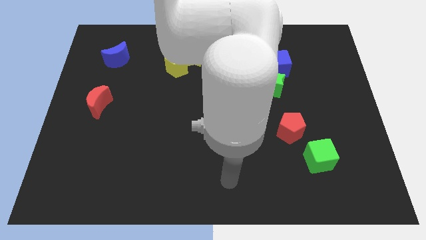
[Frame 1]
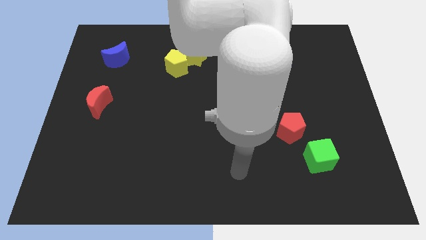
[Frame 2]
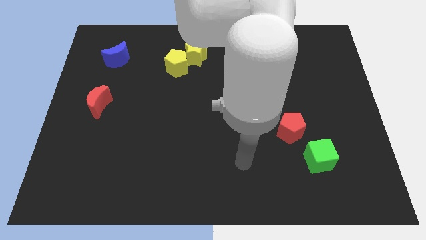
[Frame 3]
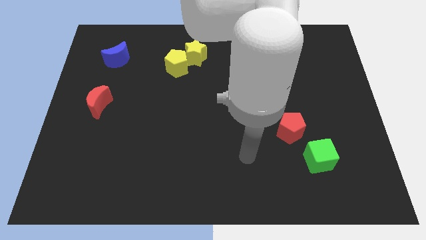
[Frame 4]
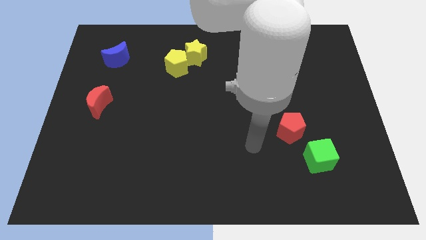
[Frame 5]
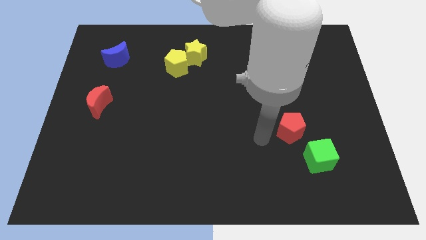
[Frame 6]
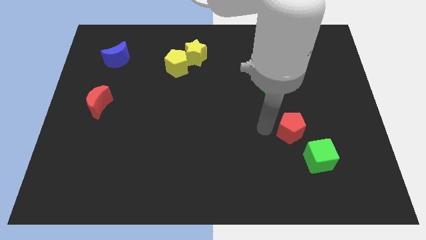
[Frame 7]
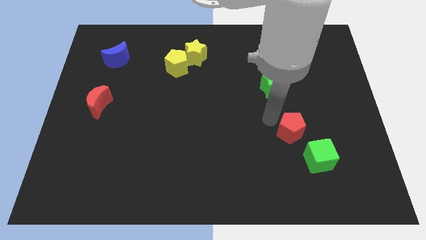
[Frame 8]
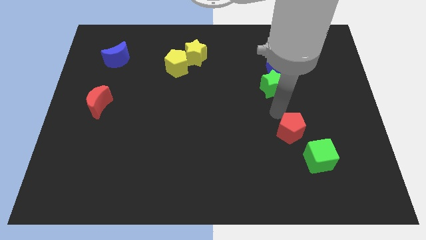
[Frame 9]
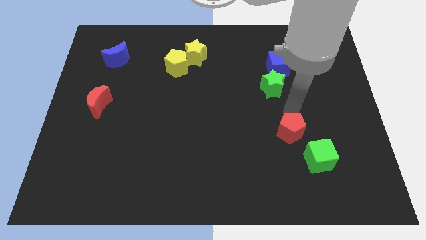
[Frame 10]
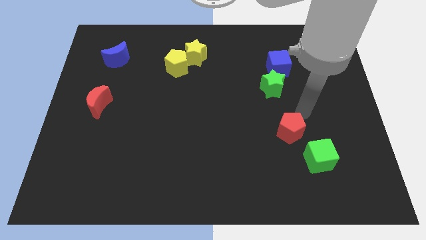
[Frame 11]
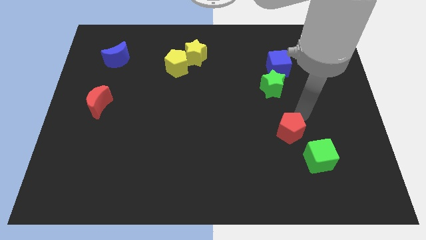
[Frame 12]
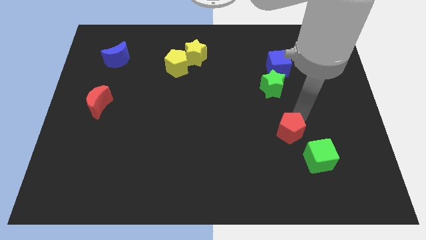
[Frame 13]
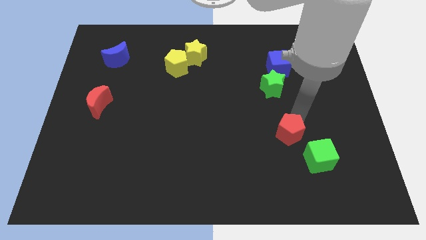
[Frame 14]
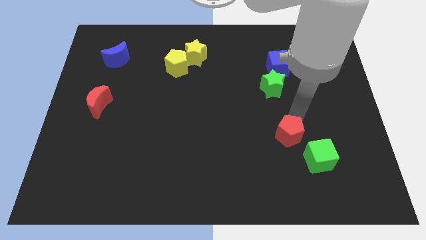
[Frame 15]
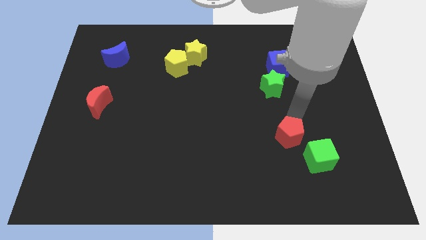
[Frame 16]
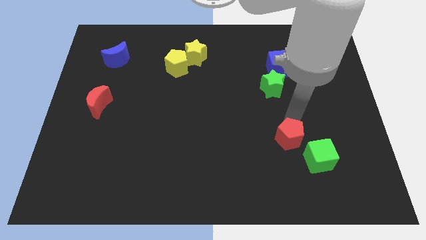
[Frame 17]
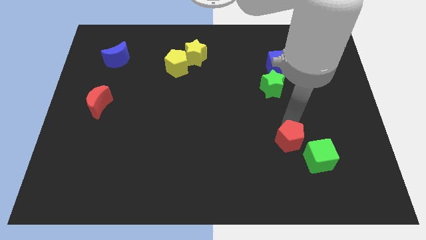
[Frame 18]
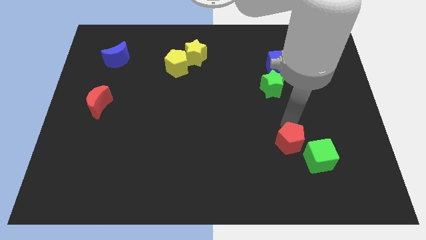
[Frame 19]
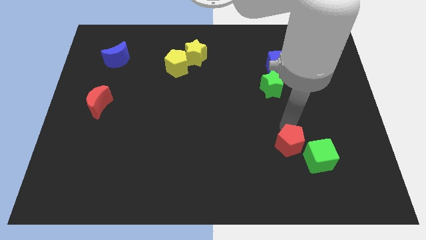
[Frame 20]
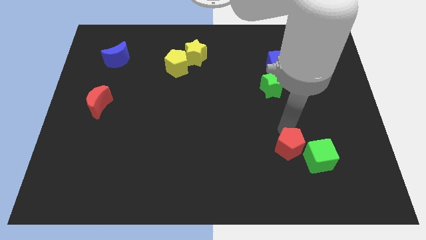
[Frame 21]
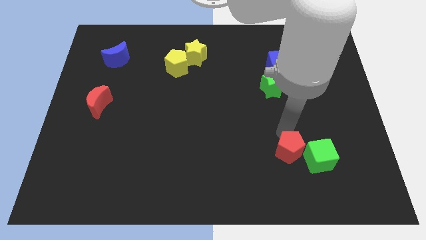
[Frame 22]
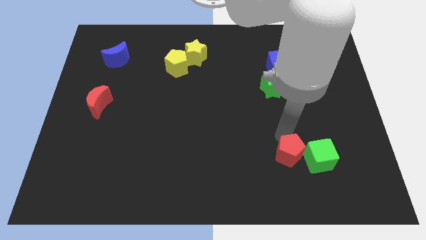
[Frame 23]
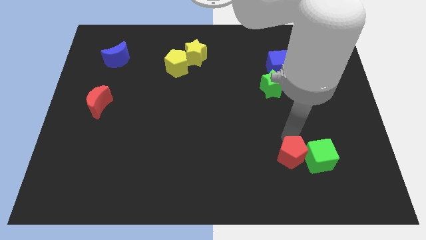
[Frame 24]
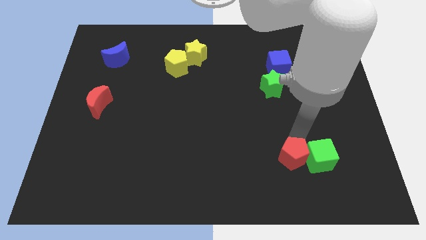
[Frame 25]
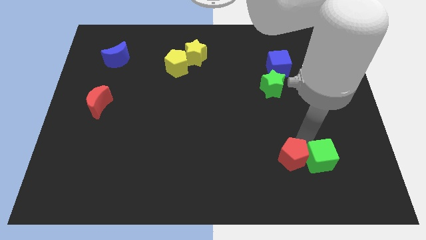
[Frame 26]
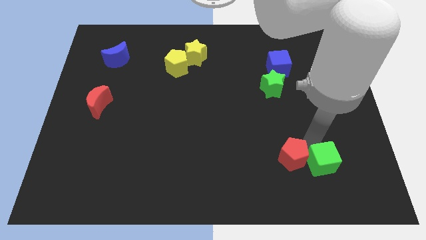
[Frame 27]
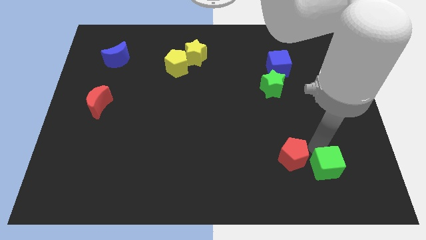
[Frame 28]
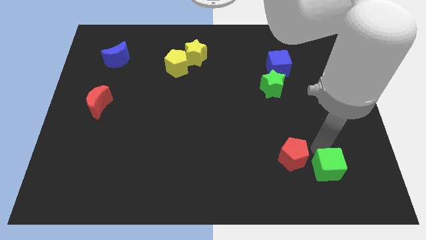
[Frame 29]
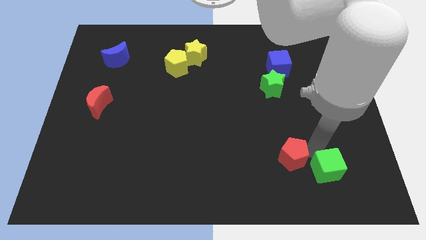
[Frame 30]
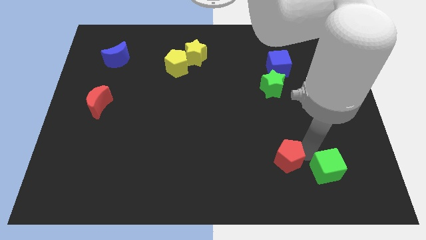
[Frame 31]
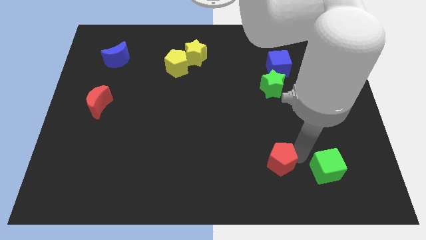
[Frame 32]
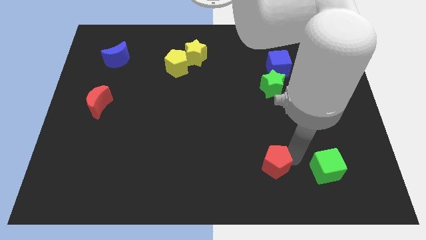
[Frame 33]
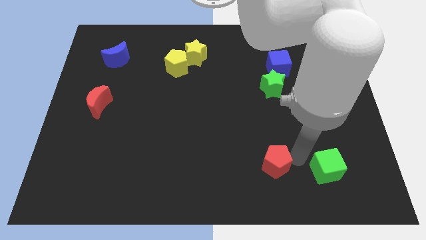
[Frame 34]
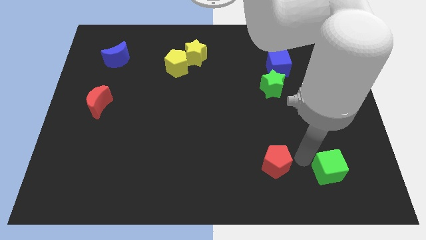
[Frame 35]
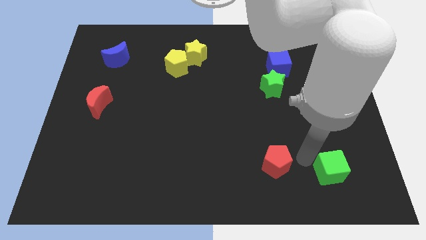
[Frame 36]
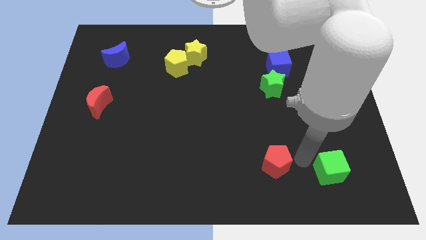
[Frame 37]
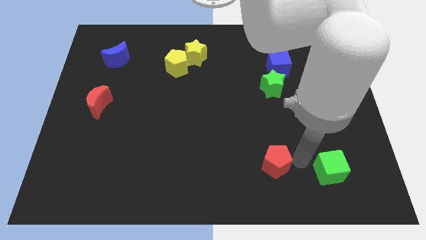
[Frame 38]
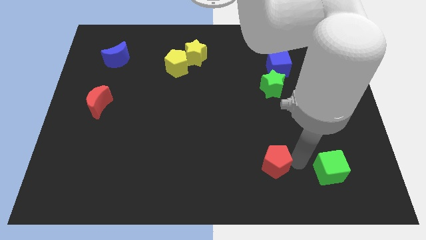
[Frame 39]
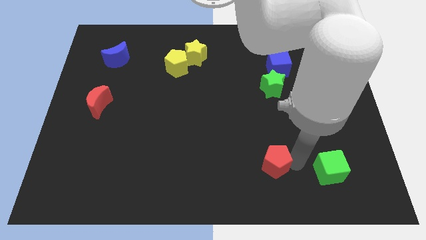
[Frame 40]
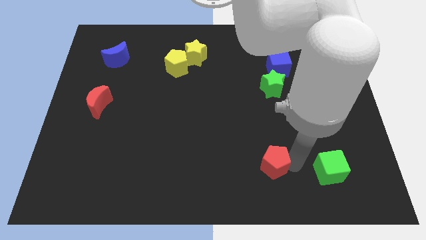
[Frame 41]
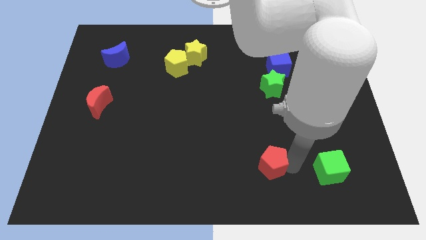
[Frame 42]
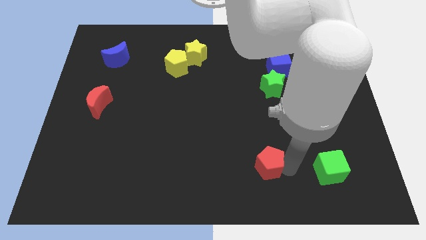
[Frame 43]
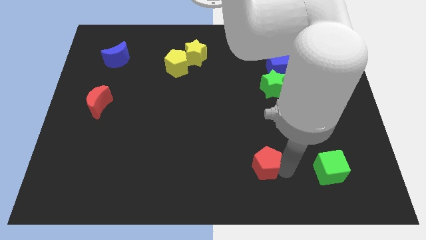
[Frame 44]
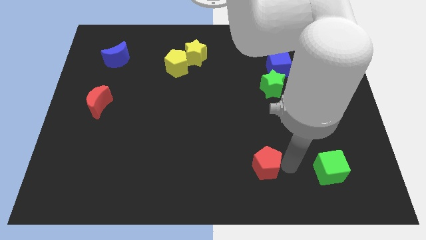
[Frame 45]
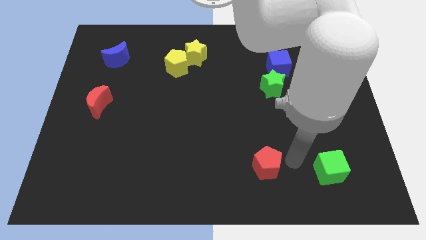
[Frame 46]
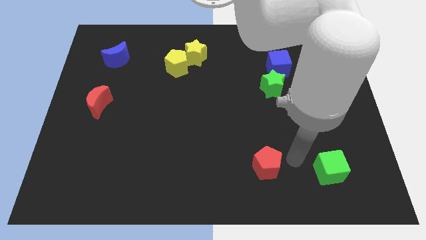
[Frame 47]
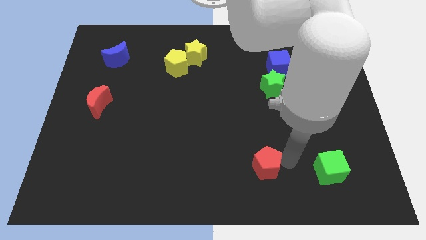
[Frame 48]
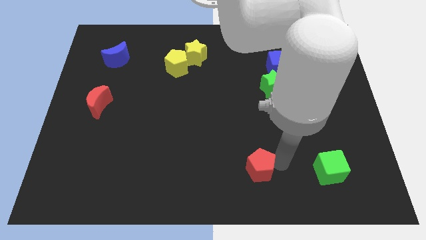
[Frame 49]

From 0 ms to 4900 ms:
push the red pentagon to the bottom side

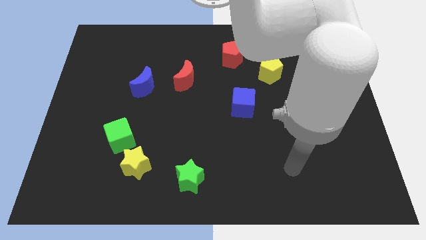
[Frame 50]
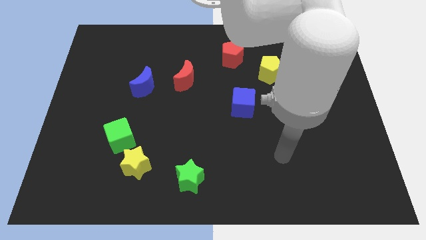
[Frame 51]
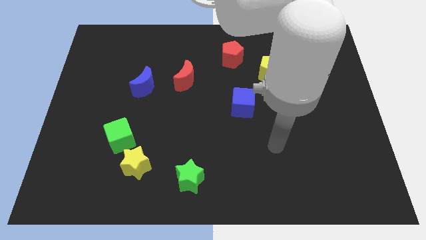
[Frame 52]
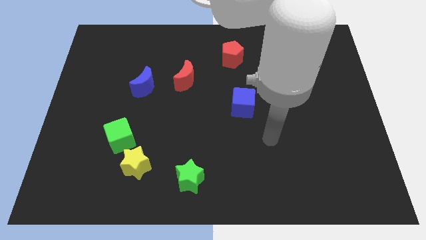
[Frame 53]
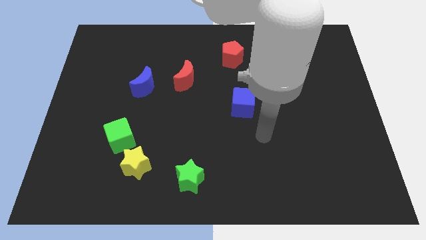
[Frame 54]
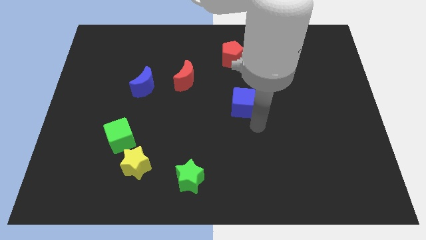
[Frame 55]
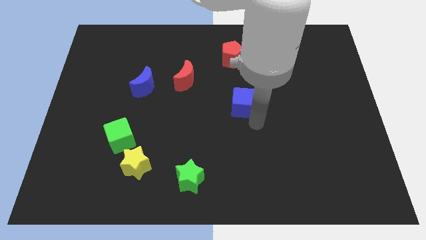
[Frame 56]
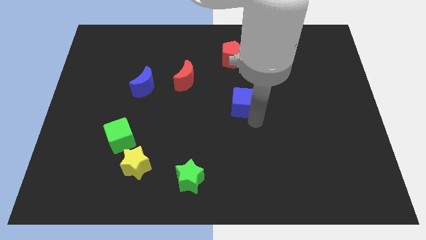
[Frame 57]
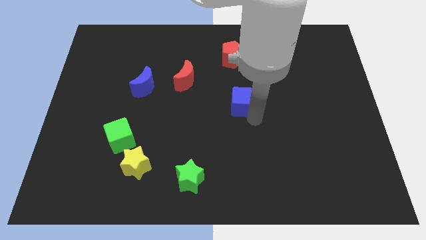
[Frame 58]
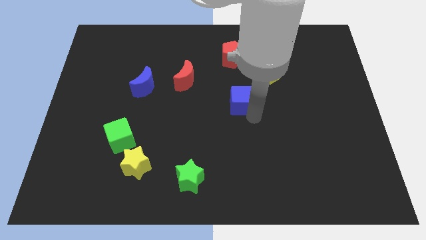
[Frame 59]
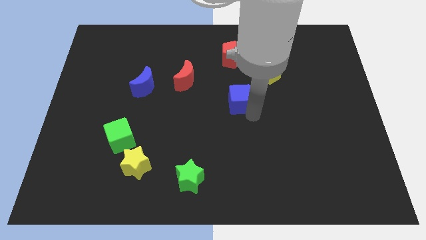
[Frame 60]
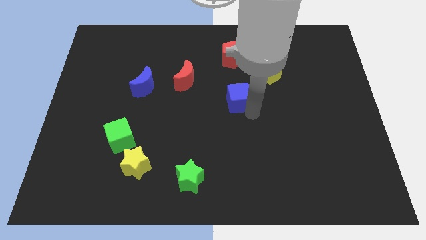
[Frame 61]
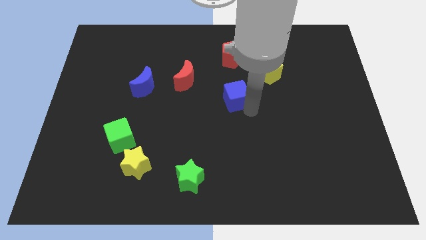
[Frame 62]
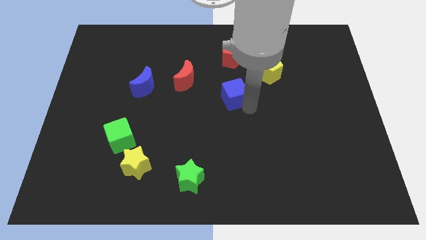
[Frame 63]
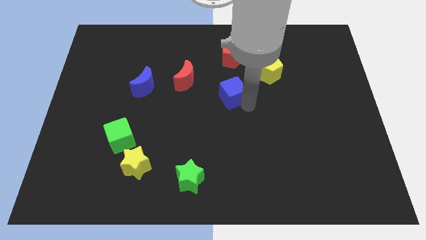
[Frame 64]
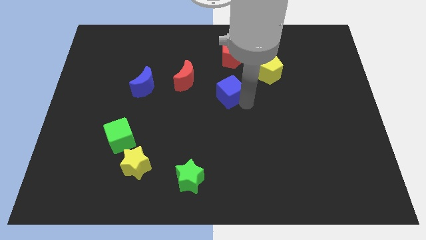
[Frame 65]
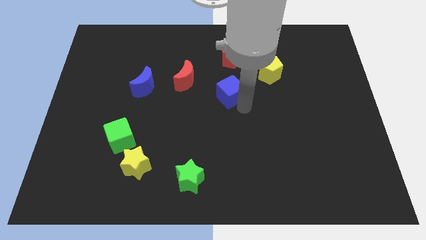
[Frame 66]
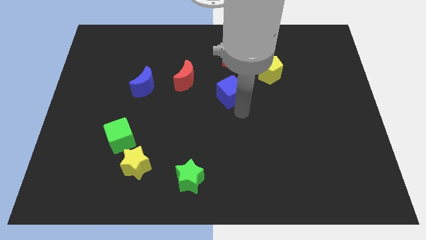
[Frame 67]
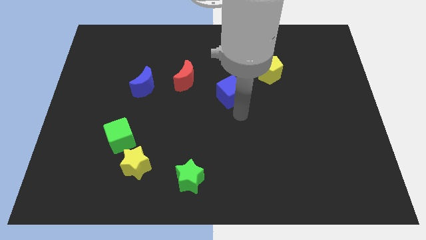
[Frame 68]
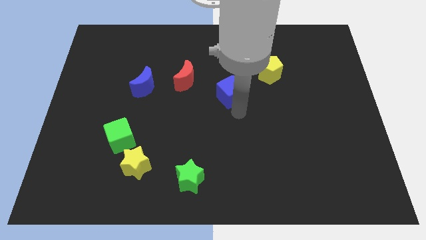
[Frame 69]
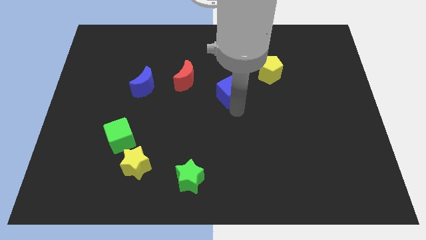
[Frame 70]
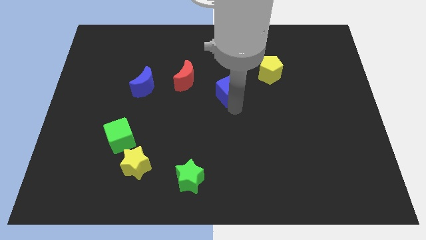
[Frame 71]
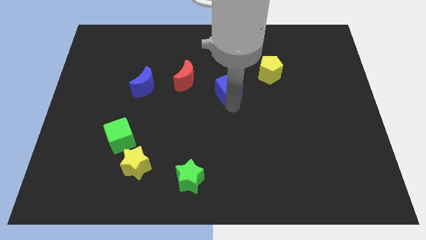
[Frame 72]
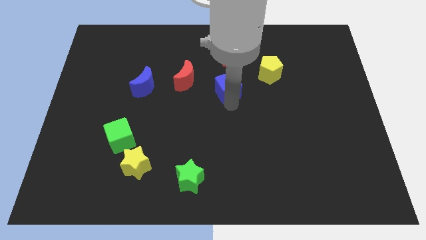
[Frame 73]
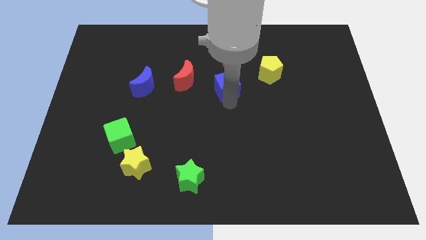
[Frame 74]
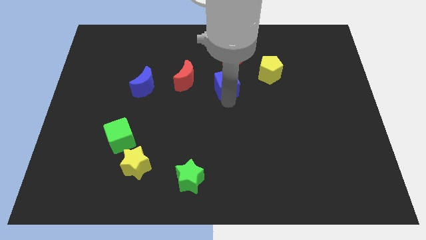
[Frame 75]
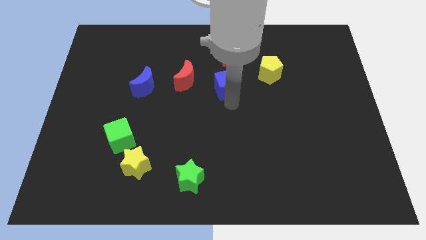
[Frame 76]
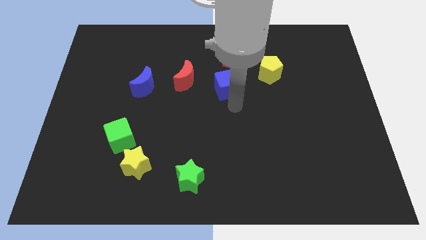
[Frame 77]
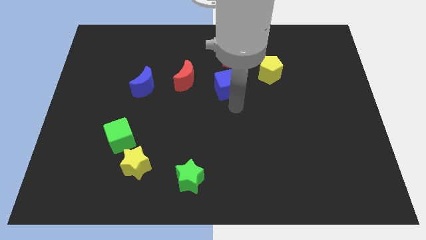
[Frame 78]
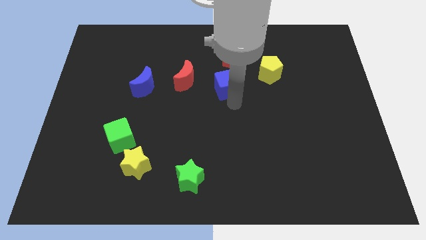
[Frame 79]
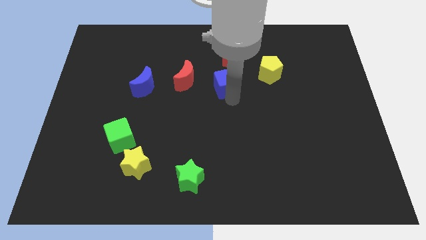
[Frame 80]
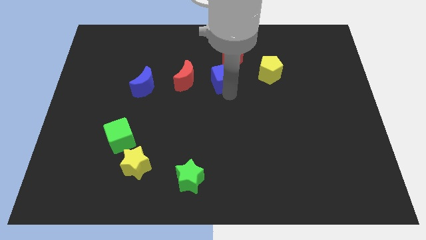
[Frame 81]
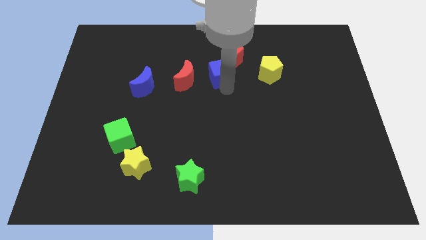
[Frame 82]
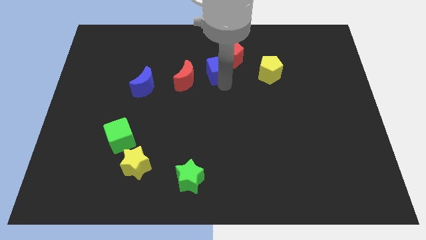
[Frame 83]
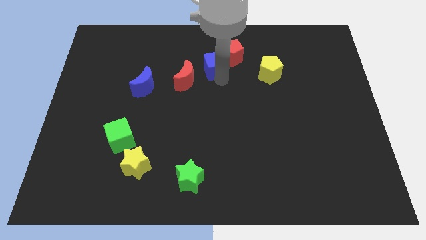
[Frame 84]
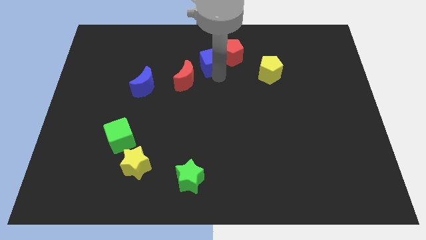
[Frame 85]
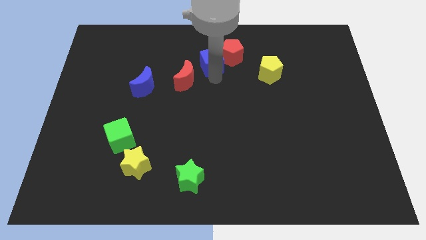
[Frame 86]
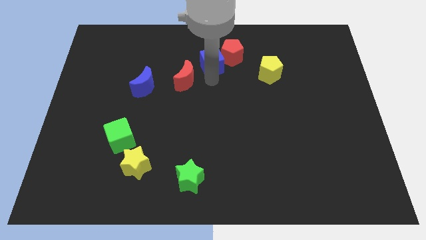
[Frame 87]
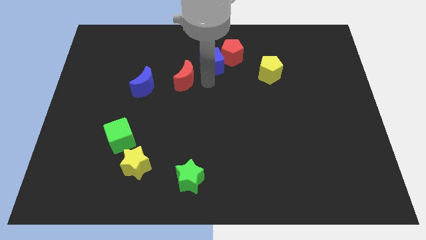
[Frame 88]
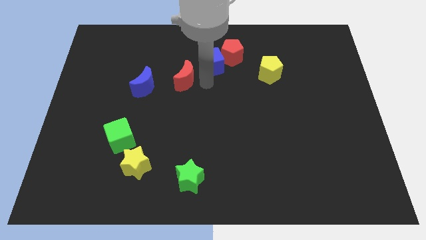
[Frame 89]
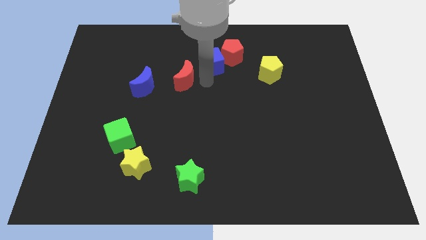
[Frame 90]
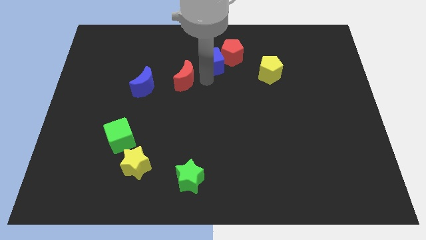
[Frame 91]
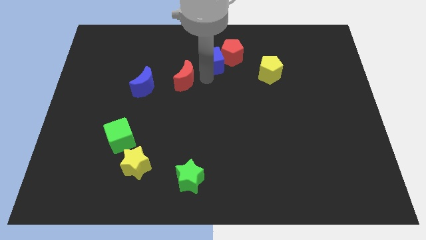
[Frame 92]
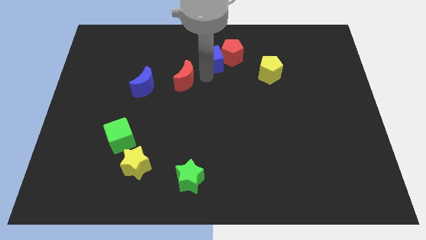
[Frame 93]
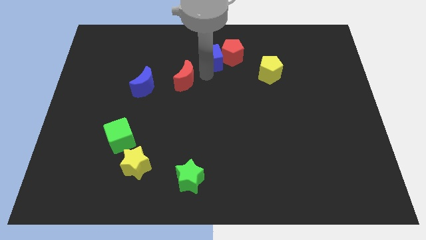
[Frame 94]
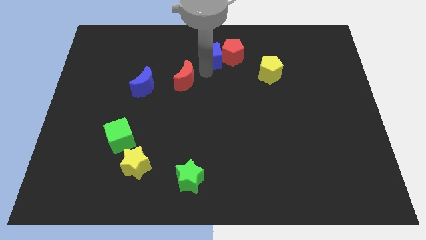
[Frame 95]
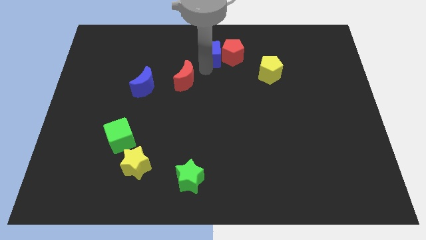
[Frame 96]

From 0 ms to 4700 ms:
push the blue cube to the top side
